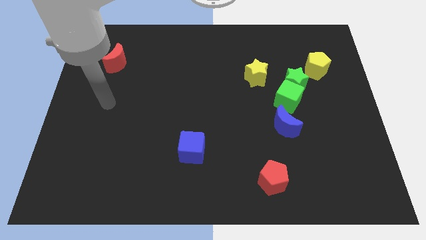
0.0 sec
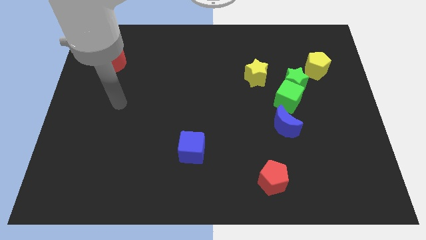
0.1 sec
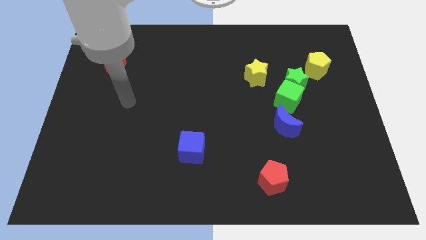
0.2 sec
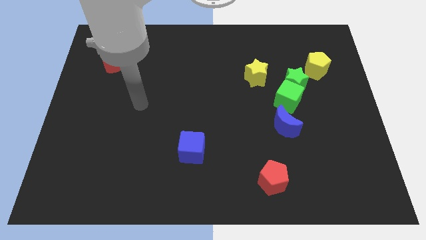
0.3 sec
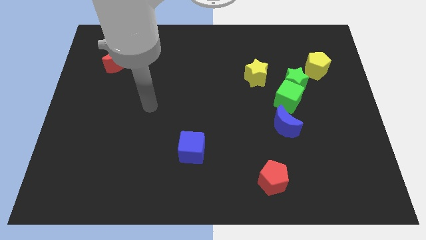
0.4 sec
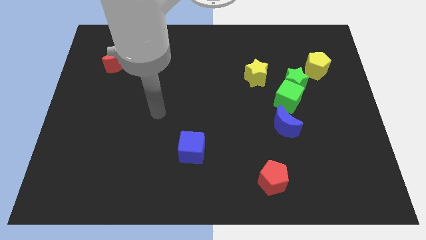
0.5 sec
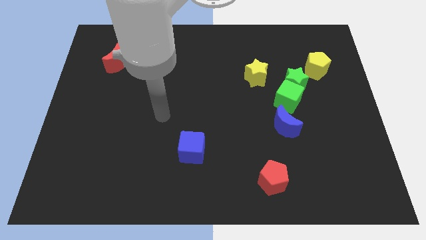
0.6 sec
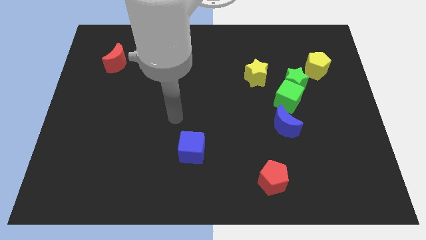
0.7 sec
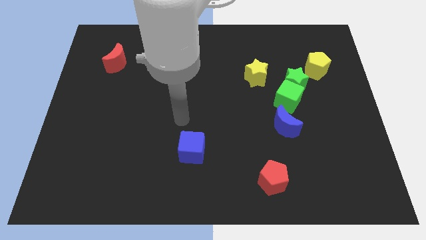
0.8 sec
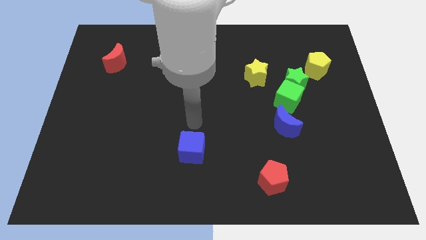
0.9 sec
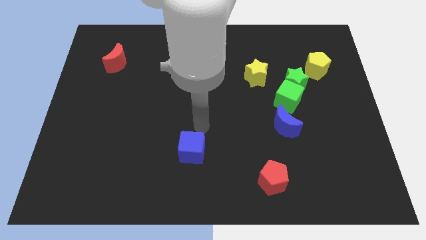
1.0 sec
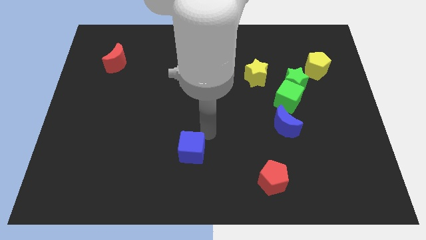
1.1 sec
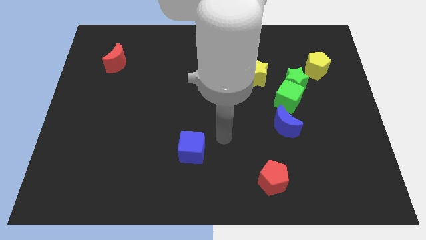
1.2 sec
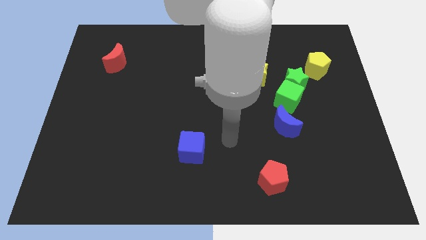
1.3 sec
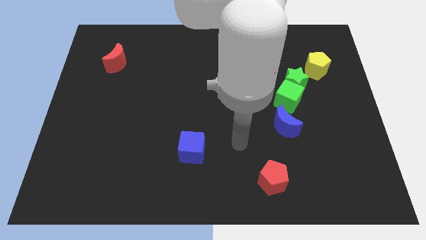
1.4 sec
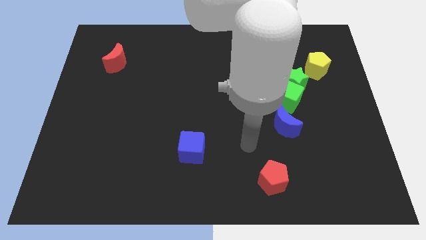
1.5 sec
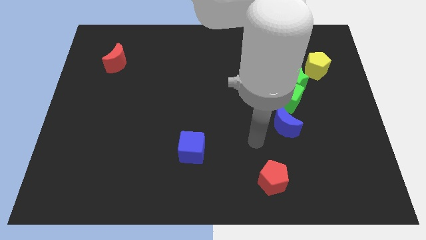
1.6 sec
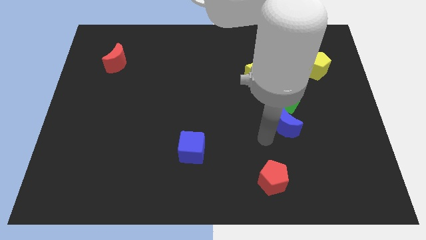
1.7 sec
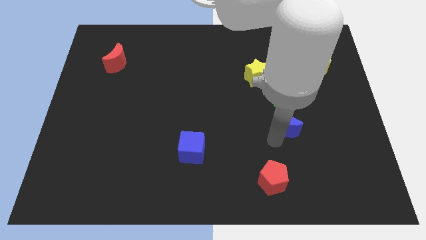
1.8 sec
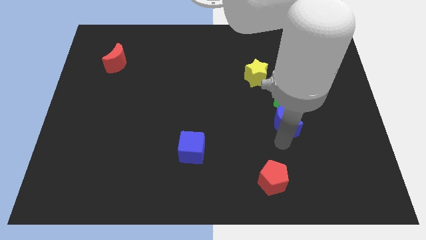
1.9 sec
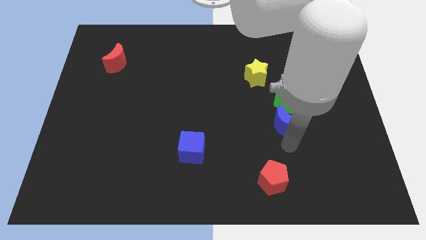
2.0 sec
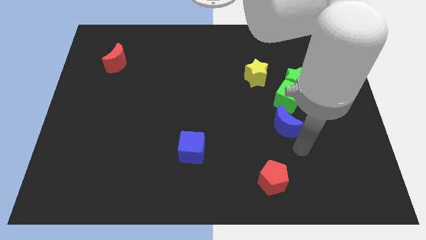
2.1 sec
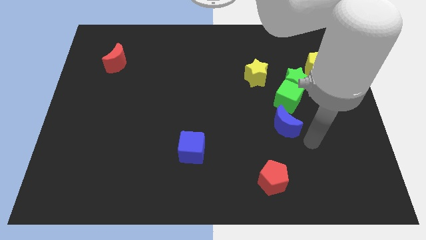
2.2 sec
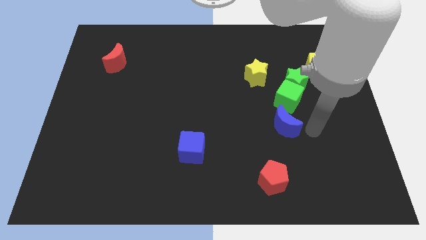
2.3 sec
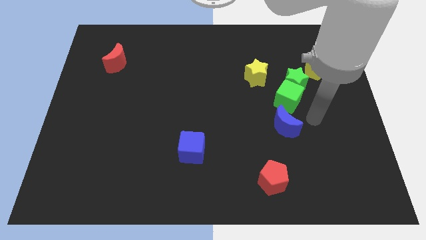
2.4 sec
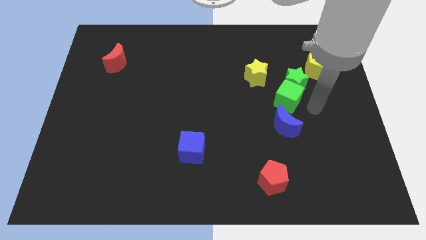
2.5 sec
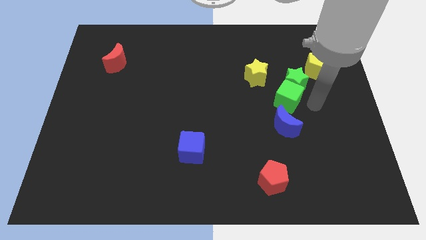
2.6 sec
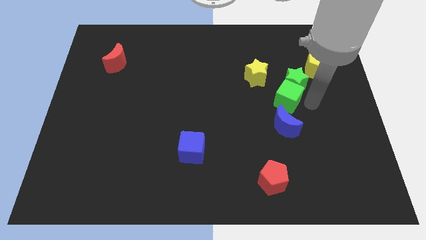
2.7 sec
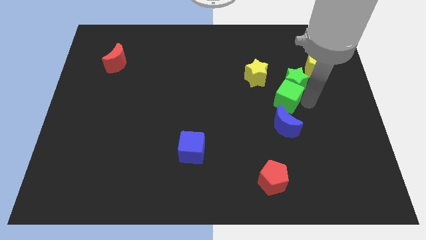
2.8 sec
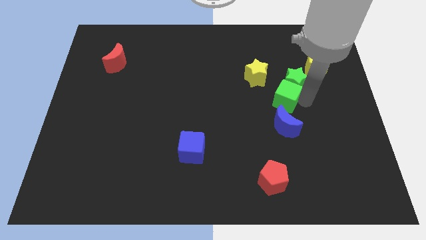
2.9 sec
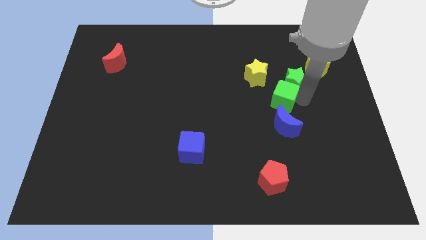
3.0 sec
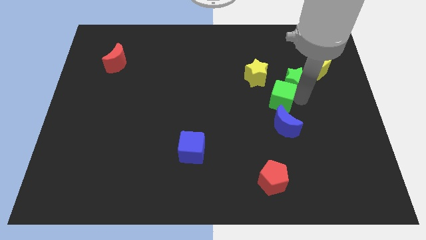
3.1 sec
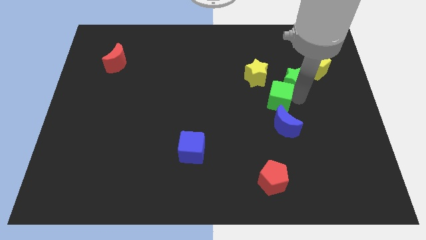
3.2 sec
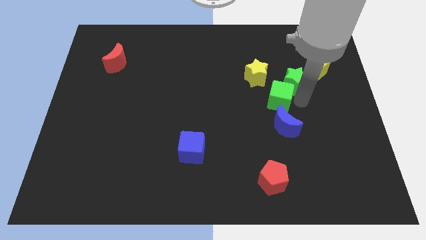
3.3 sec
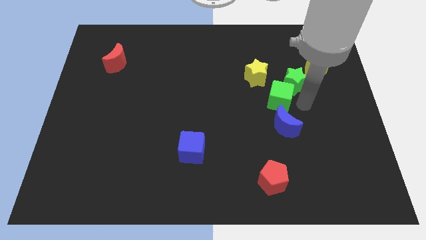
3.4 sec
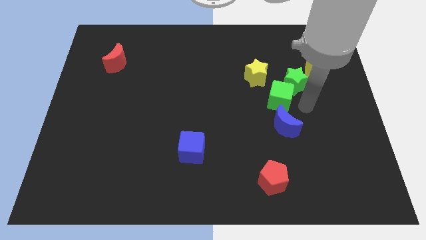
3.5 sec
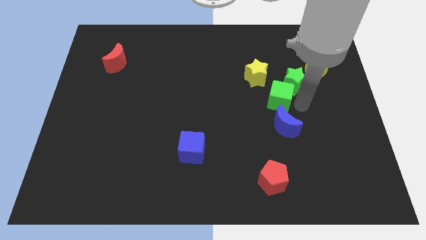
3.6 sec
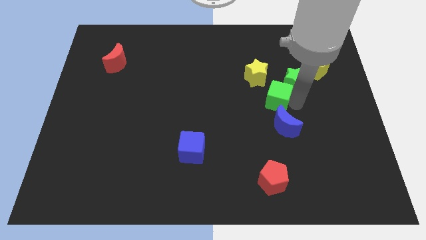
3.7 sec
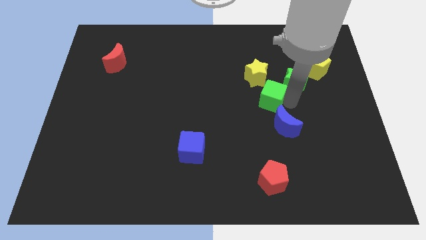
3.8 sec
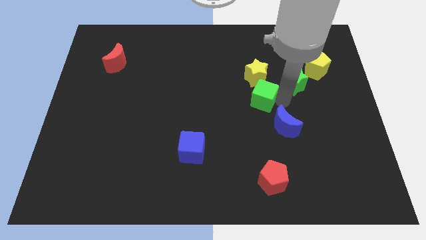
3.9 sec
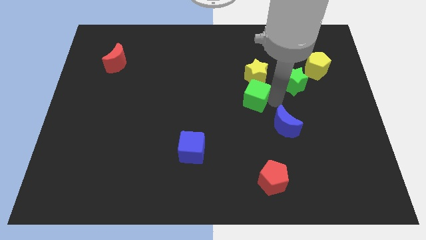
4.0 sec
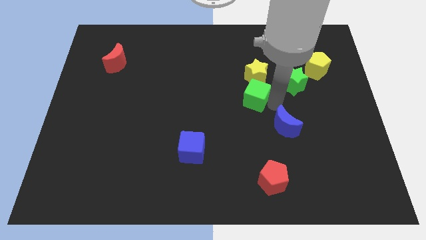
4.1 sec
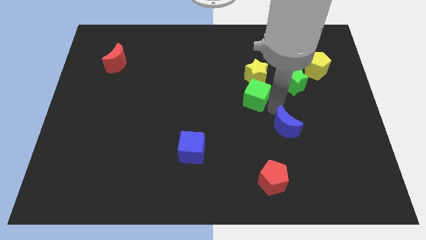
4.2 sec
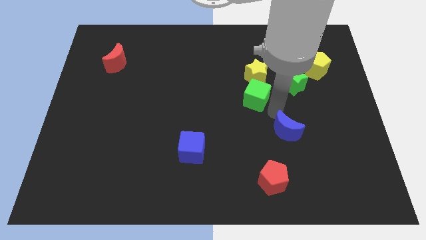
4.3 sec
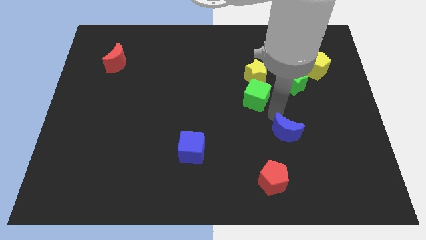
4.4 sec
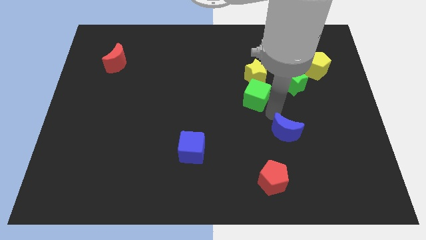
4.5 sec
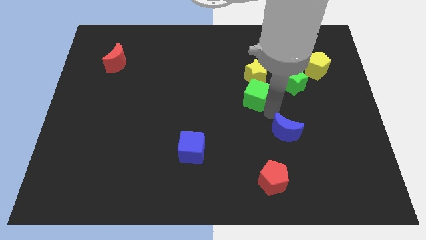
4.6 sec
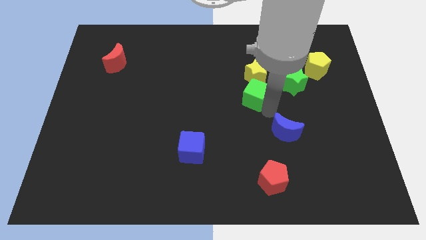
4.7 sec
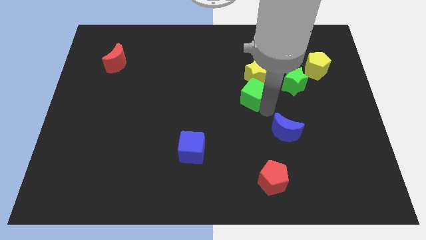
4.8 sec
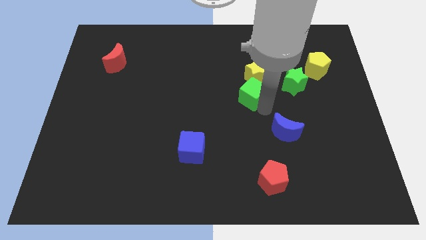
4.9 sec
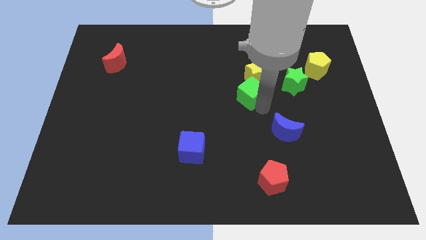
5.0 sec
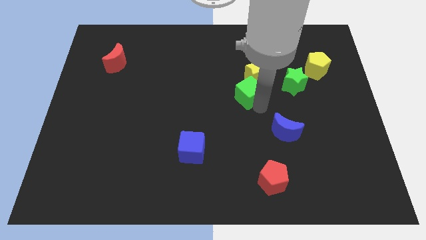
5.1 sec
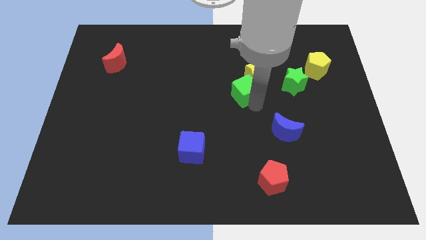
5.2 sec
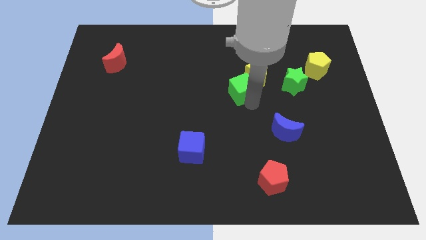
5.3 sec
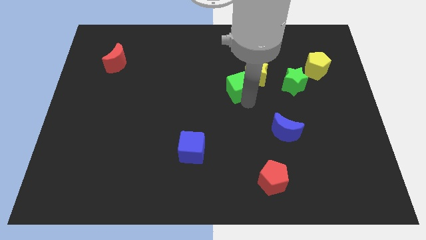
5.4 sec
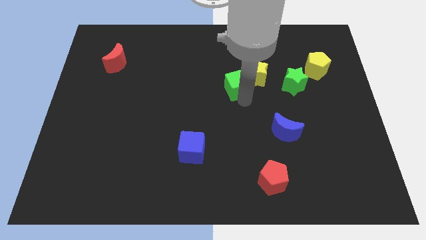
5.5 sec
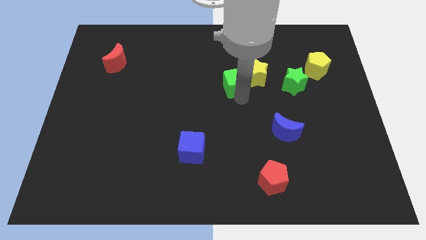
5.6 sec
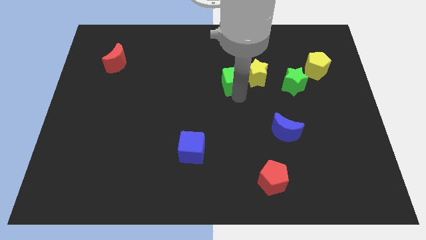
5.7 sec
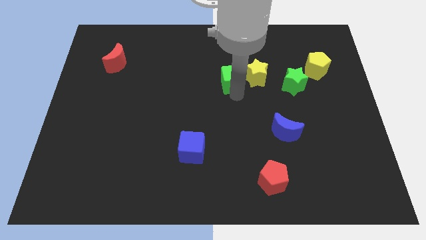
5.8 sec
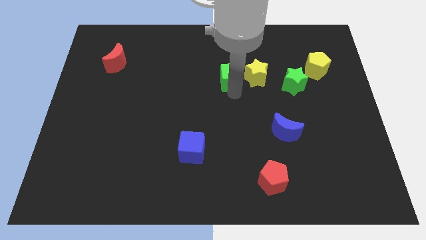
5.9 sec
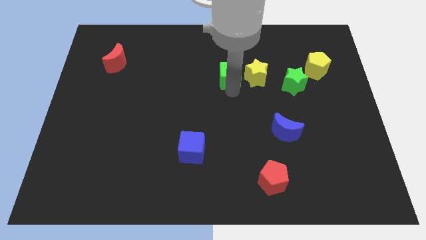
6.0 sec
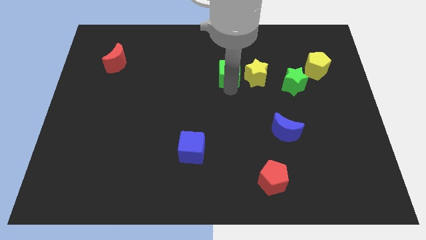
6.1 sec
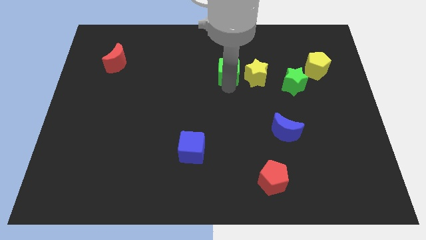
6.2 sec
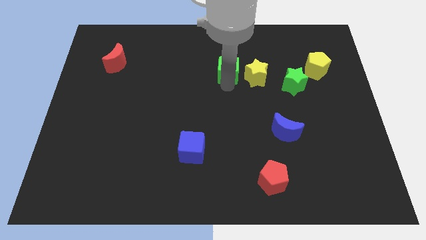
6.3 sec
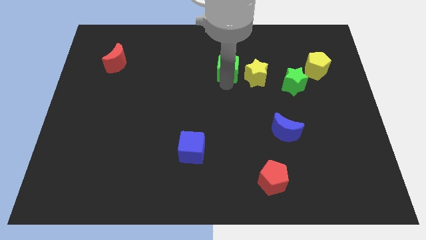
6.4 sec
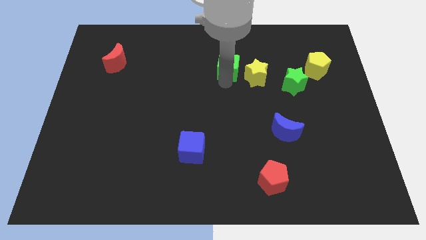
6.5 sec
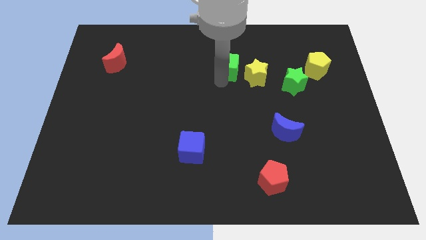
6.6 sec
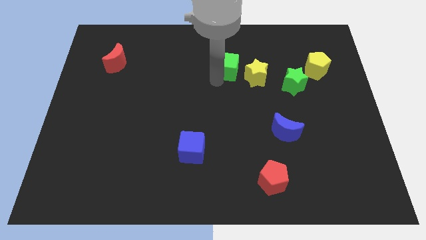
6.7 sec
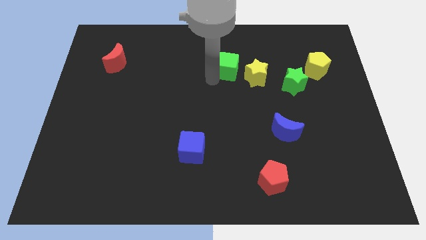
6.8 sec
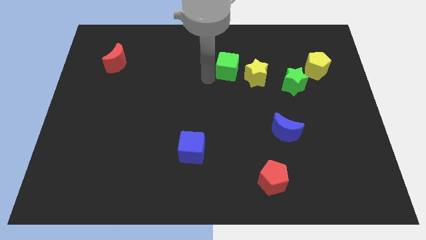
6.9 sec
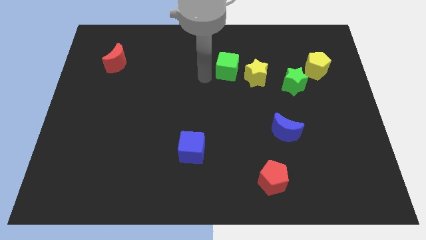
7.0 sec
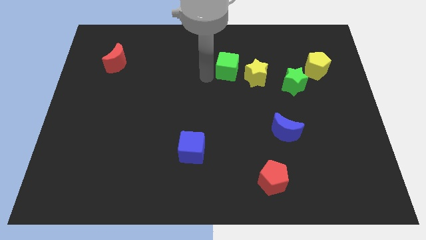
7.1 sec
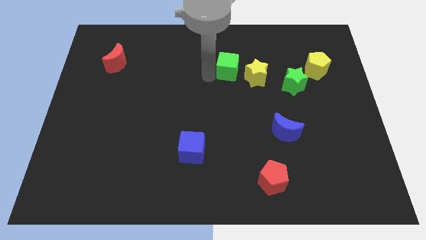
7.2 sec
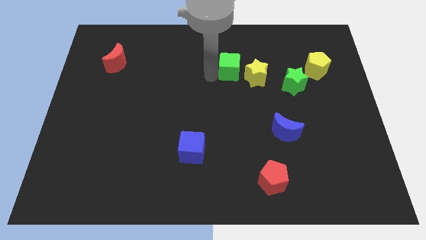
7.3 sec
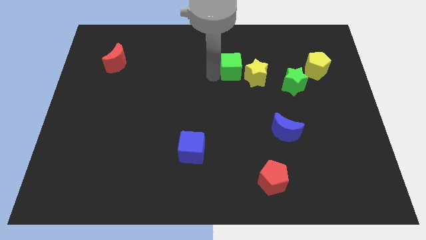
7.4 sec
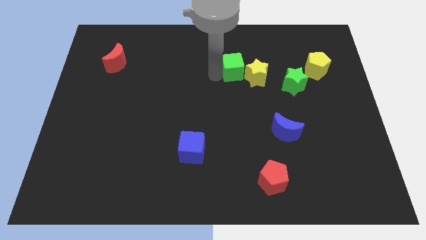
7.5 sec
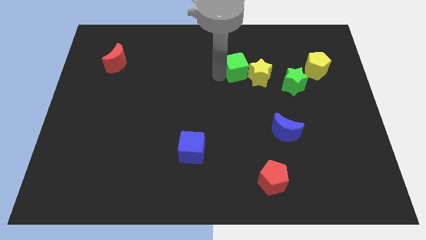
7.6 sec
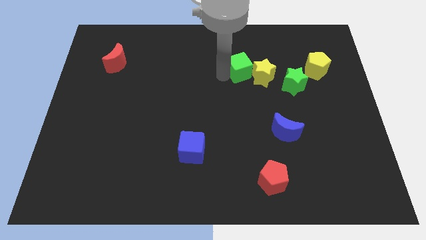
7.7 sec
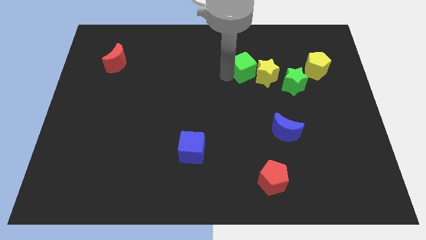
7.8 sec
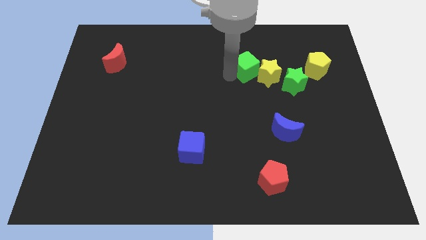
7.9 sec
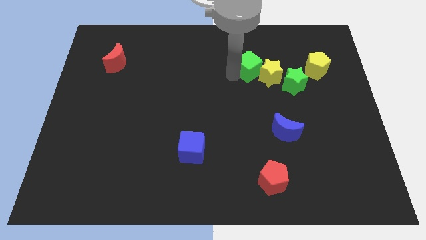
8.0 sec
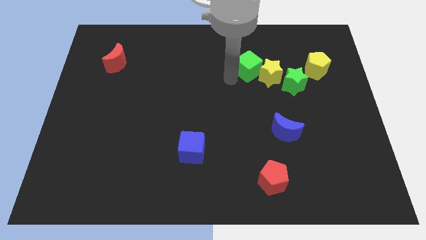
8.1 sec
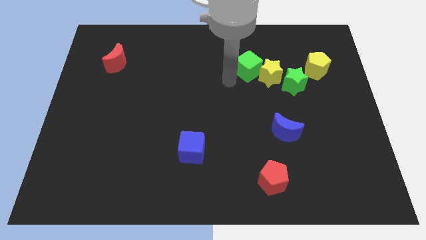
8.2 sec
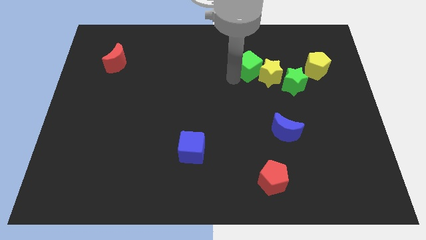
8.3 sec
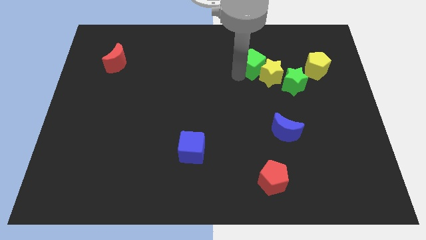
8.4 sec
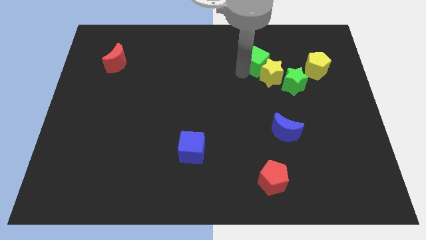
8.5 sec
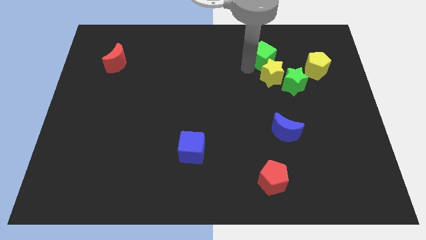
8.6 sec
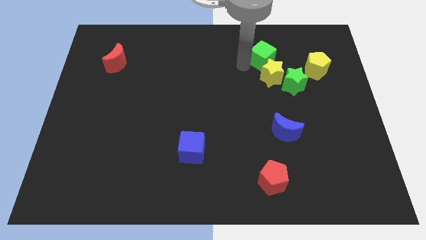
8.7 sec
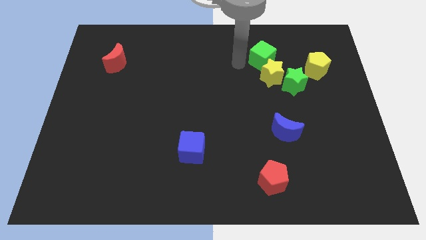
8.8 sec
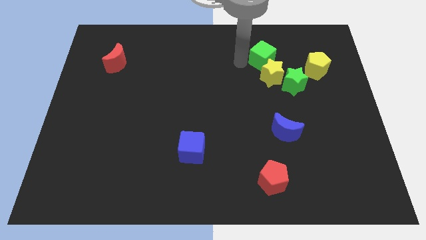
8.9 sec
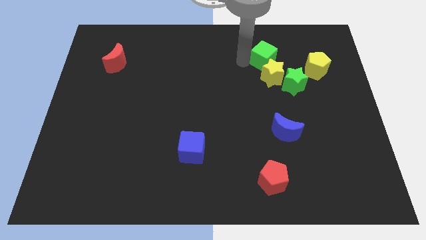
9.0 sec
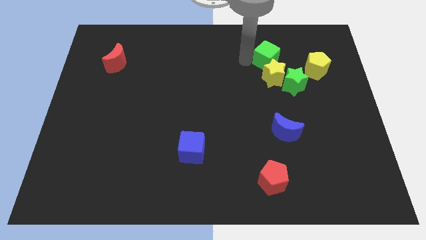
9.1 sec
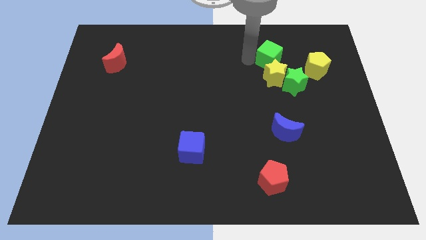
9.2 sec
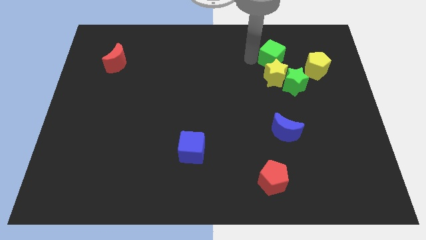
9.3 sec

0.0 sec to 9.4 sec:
move the green cube above the green star
